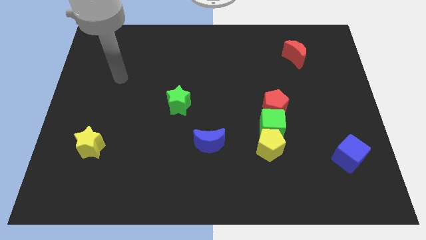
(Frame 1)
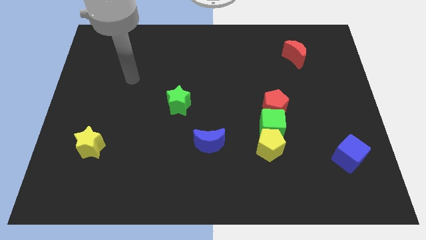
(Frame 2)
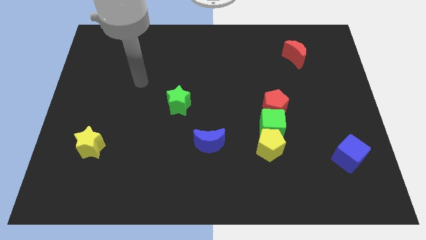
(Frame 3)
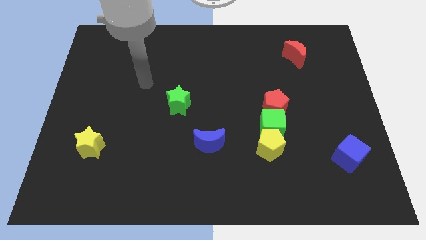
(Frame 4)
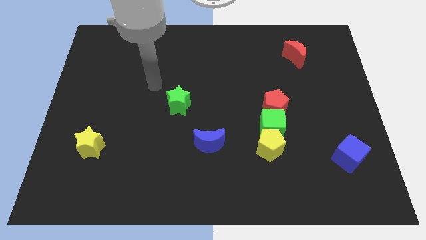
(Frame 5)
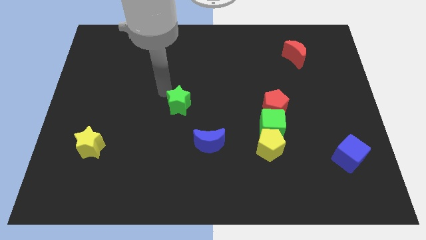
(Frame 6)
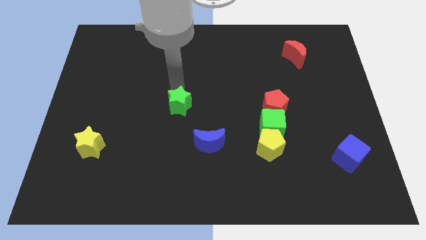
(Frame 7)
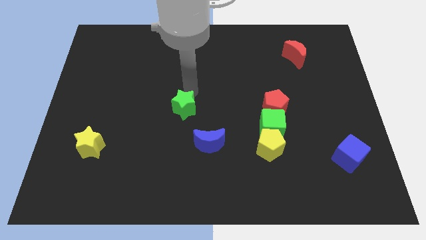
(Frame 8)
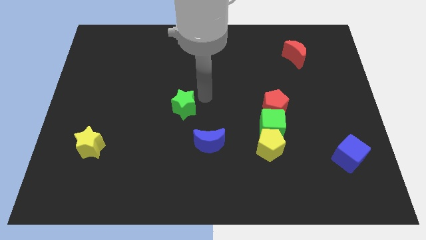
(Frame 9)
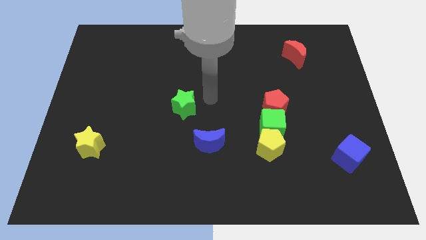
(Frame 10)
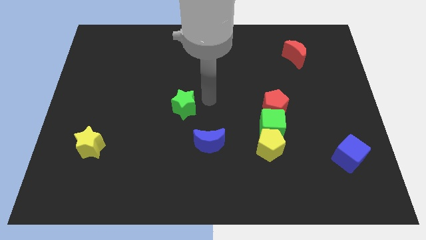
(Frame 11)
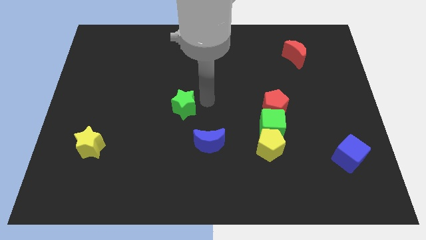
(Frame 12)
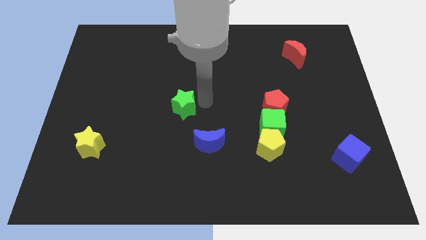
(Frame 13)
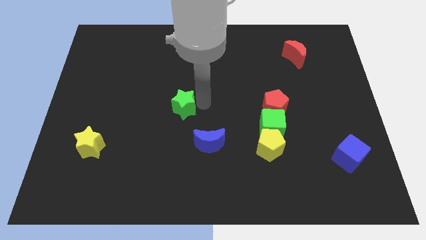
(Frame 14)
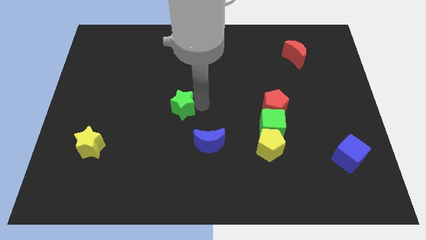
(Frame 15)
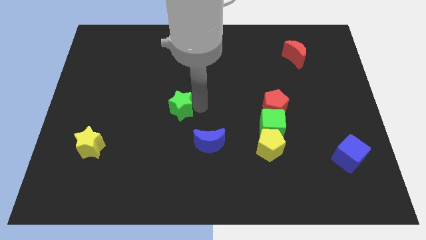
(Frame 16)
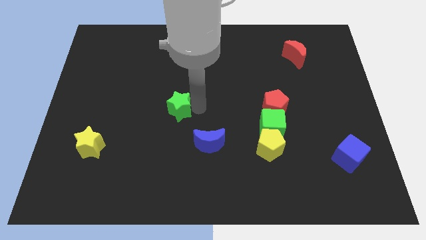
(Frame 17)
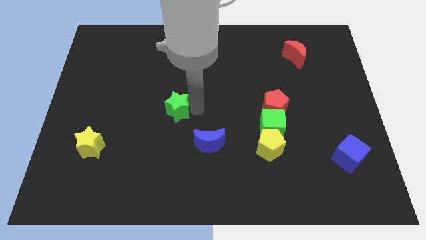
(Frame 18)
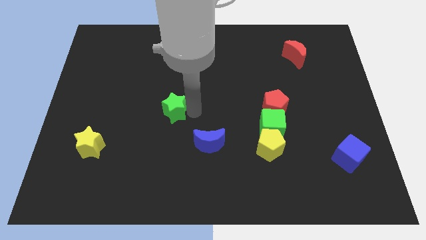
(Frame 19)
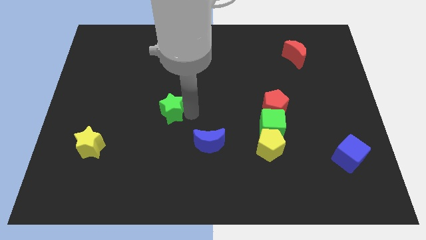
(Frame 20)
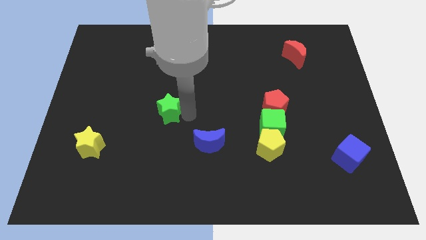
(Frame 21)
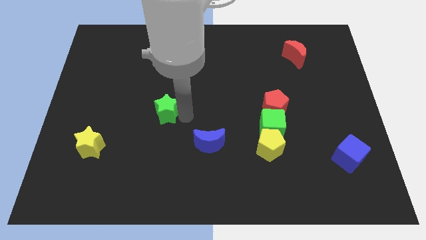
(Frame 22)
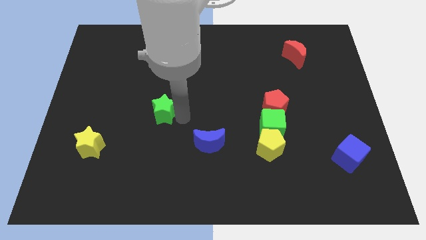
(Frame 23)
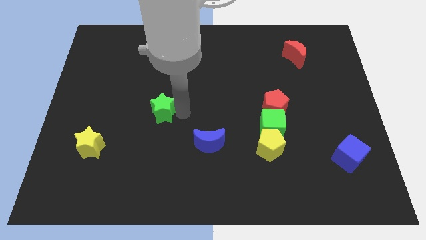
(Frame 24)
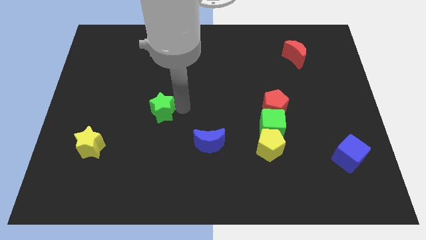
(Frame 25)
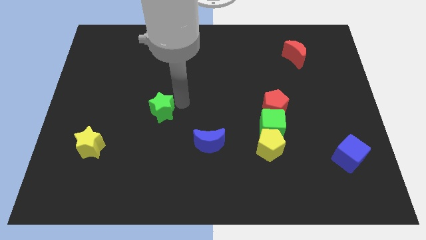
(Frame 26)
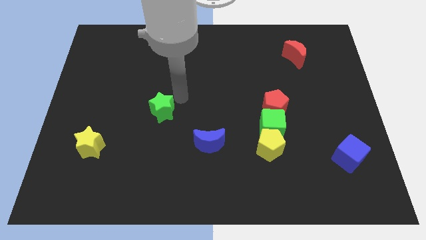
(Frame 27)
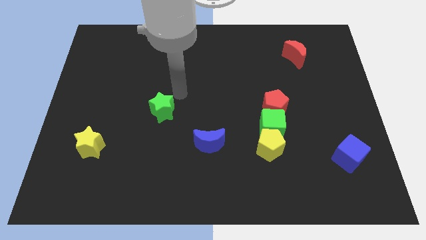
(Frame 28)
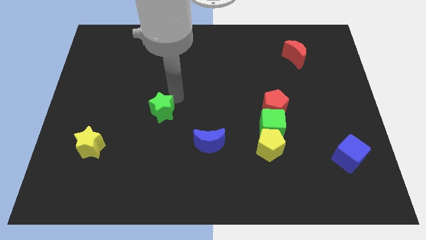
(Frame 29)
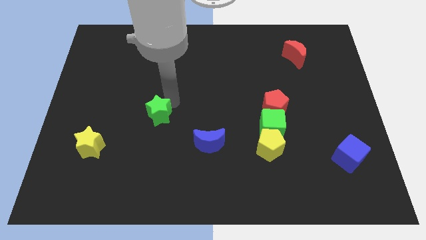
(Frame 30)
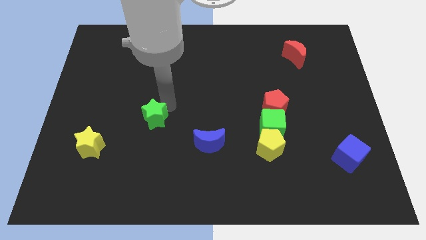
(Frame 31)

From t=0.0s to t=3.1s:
move the green star a little downwards and then left

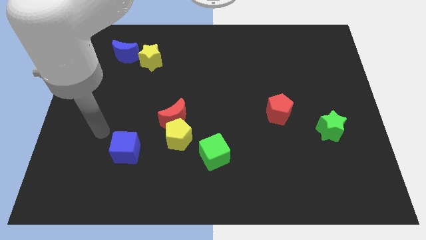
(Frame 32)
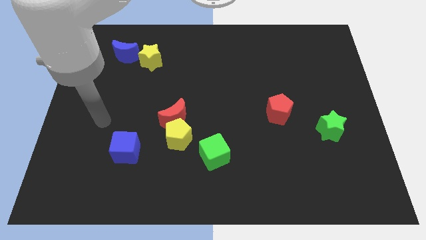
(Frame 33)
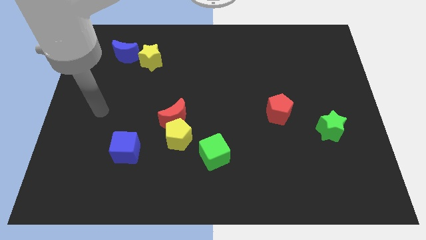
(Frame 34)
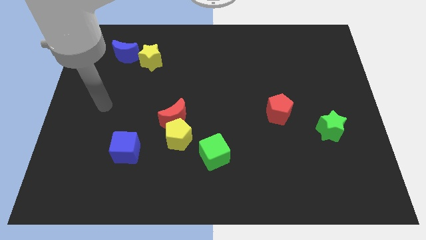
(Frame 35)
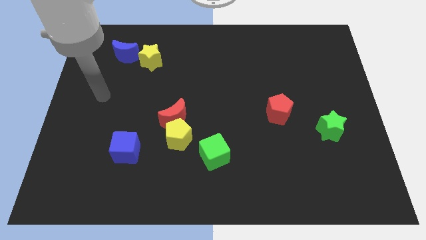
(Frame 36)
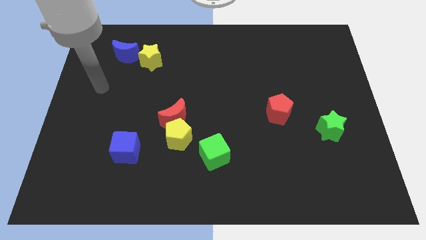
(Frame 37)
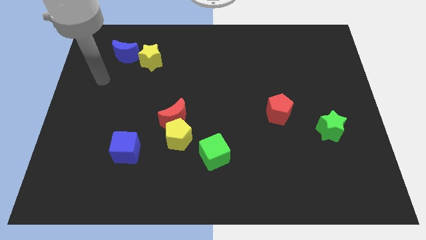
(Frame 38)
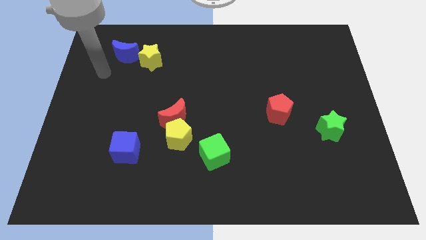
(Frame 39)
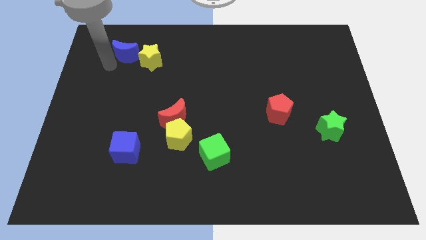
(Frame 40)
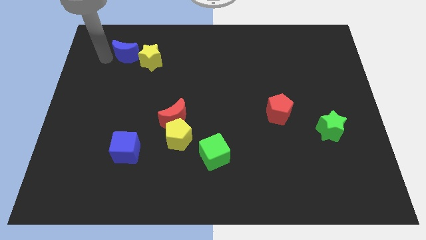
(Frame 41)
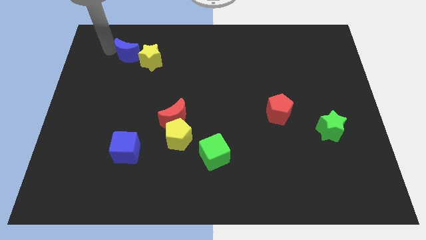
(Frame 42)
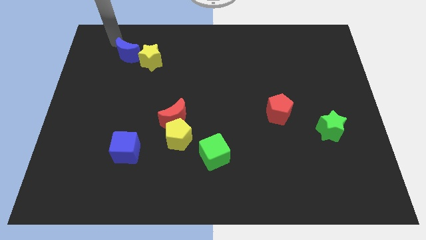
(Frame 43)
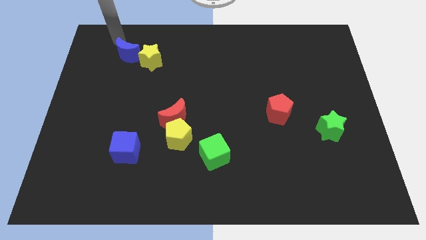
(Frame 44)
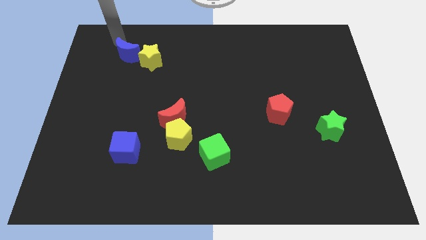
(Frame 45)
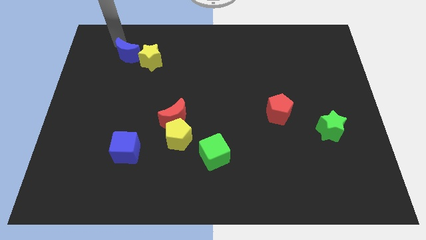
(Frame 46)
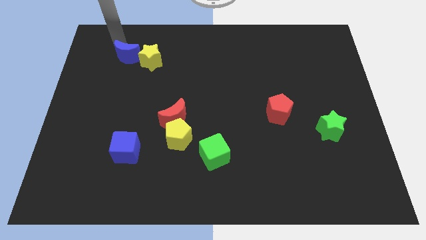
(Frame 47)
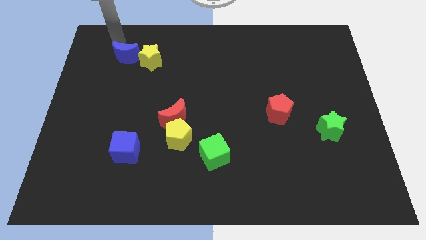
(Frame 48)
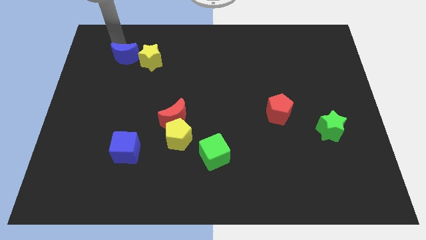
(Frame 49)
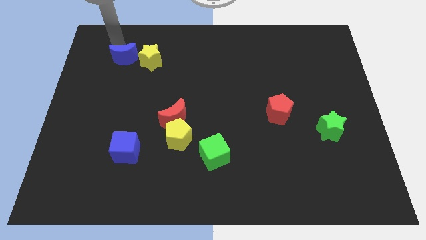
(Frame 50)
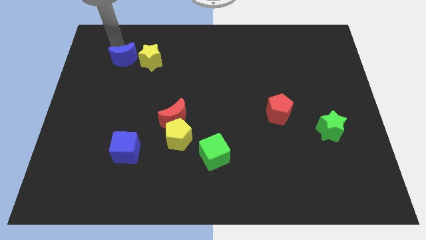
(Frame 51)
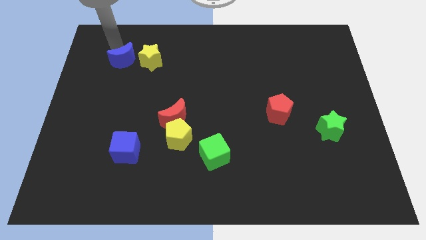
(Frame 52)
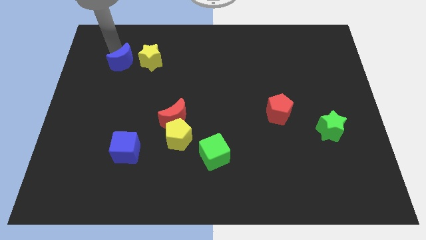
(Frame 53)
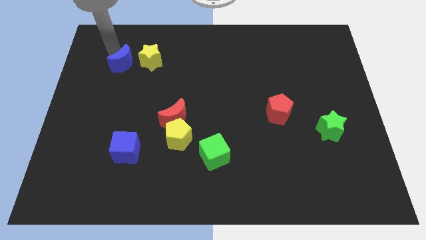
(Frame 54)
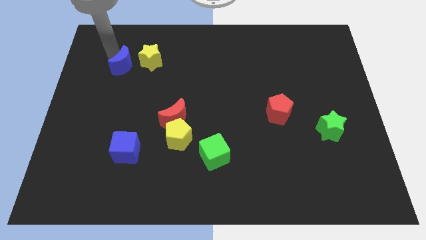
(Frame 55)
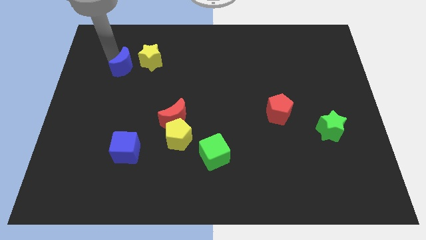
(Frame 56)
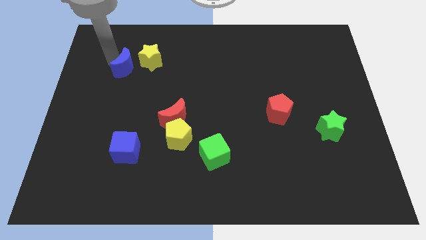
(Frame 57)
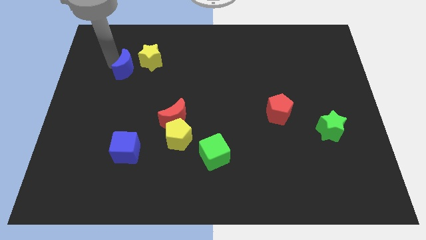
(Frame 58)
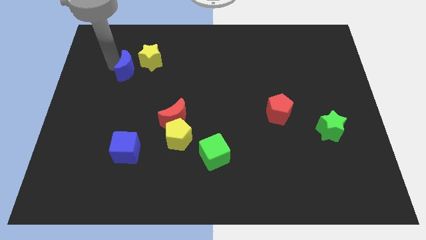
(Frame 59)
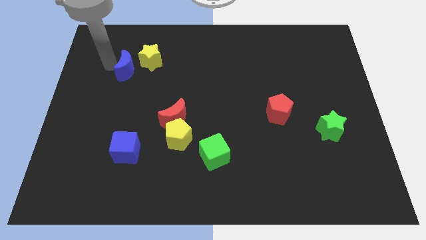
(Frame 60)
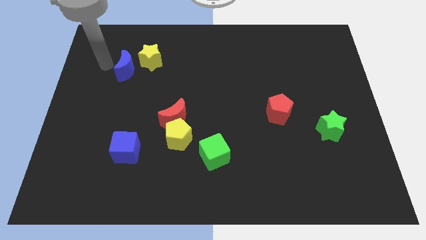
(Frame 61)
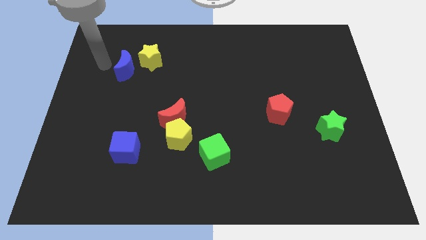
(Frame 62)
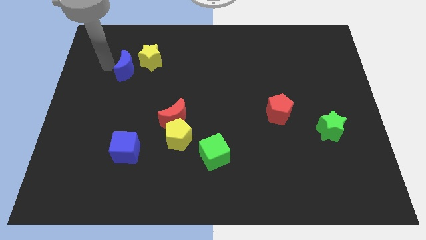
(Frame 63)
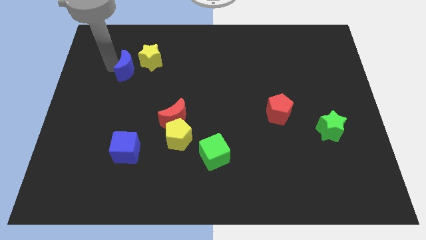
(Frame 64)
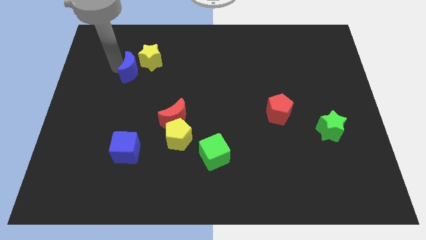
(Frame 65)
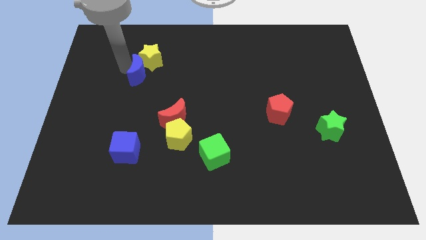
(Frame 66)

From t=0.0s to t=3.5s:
slightly move the blue moon diagonally down and to the right

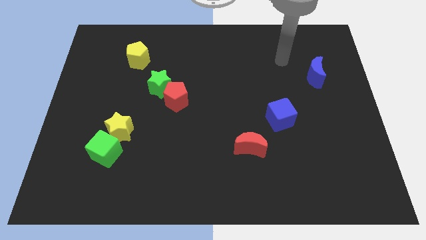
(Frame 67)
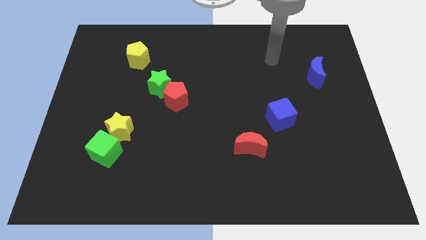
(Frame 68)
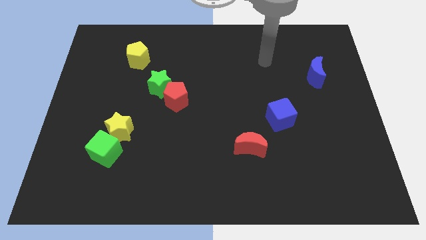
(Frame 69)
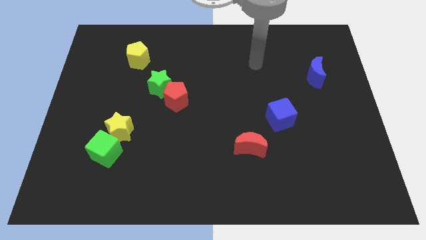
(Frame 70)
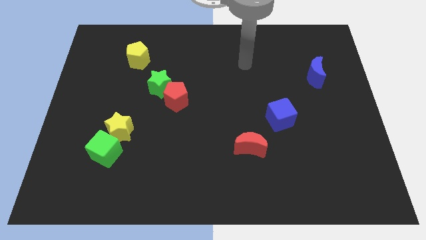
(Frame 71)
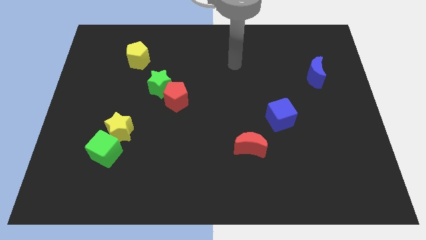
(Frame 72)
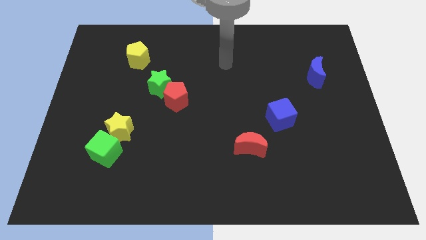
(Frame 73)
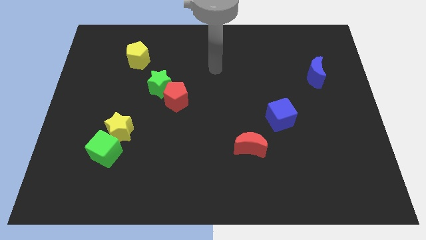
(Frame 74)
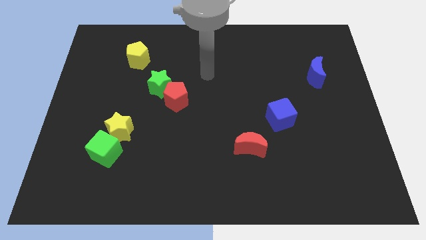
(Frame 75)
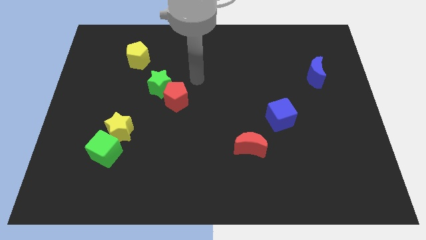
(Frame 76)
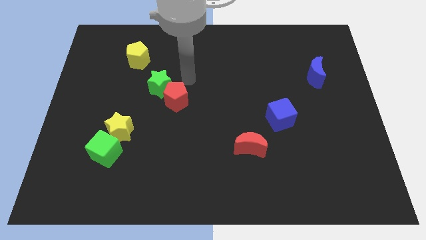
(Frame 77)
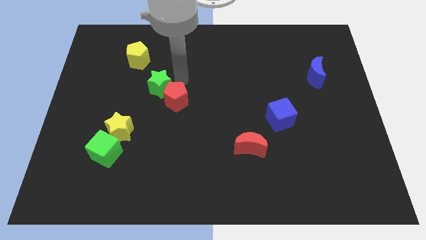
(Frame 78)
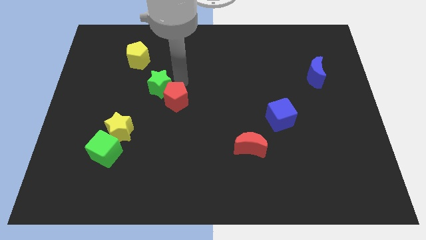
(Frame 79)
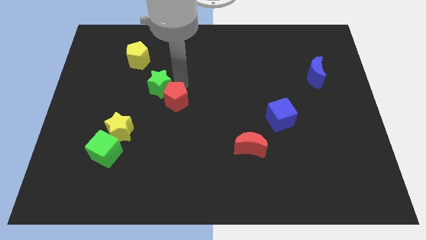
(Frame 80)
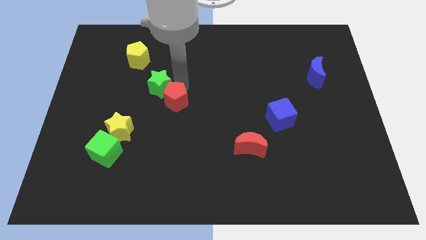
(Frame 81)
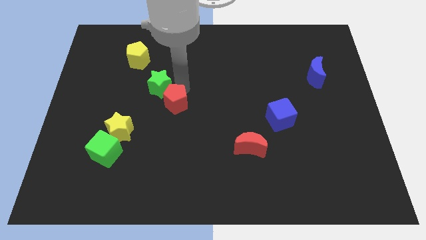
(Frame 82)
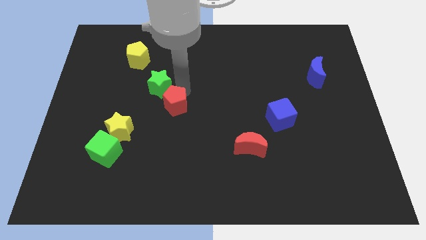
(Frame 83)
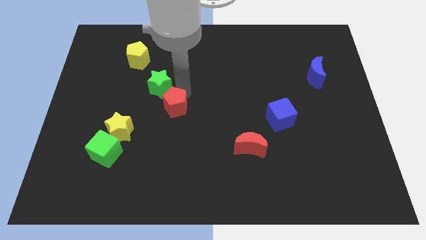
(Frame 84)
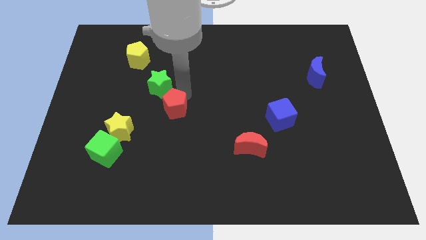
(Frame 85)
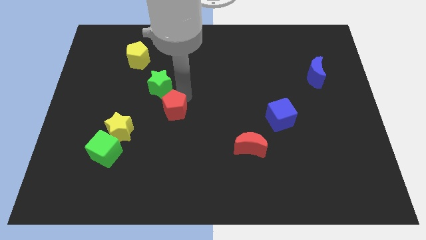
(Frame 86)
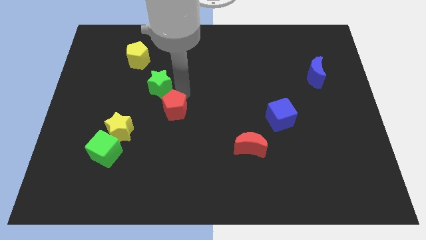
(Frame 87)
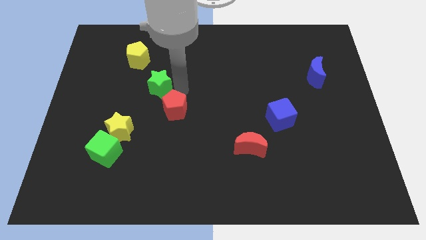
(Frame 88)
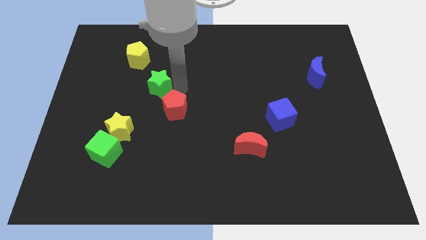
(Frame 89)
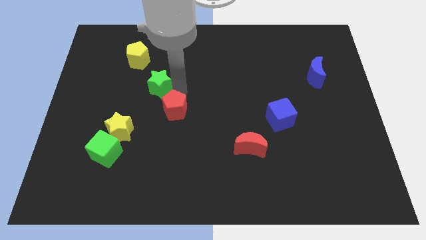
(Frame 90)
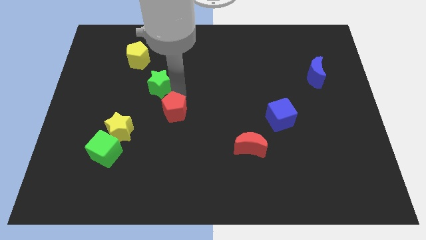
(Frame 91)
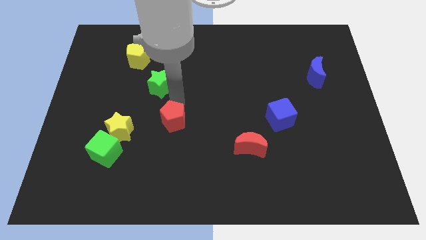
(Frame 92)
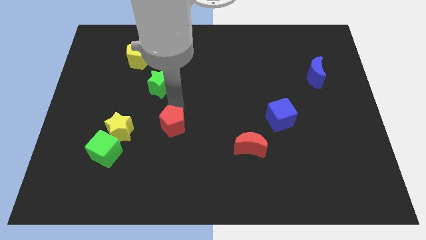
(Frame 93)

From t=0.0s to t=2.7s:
push the red pentagon downwards a bit
